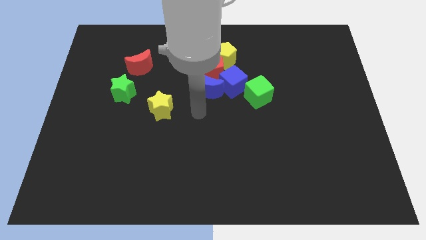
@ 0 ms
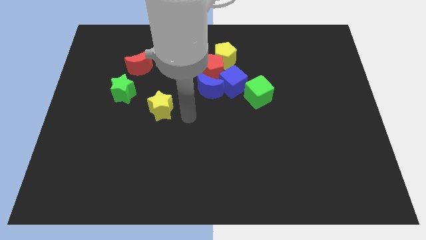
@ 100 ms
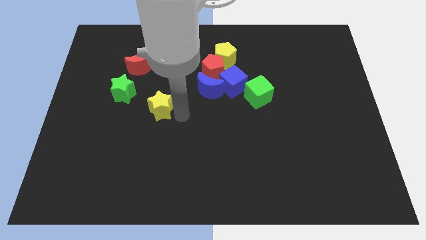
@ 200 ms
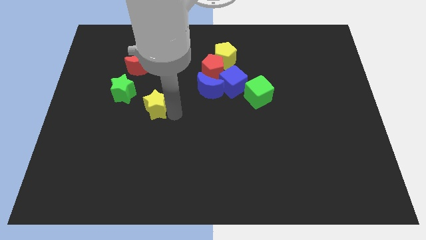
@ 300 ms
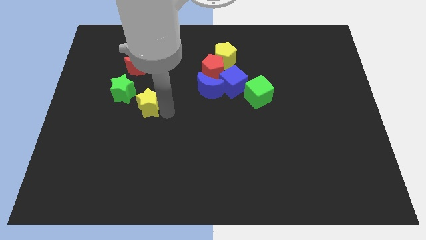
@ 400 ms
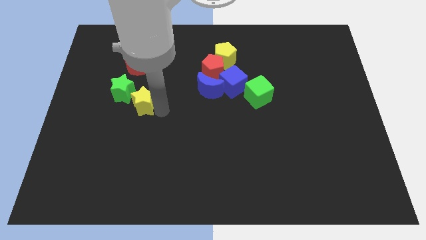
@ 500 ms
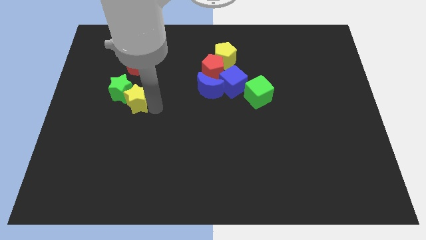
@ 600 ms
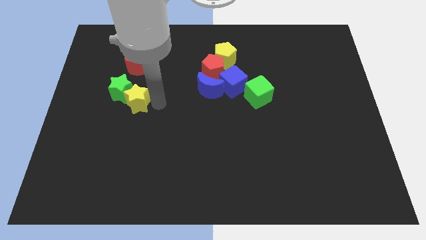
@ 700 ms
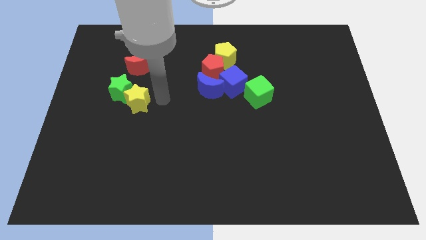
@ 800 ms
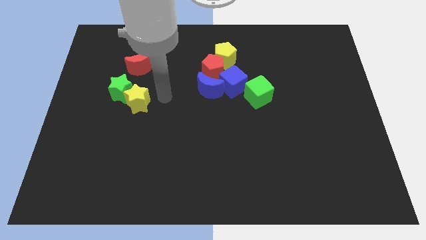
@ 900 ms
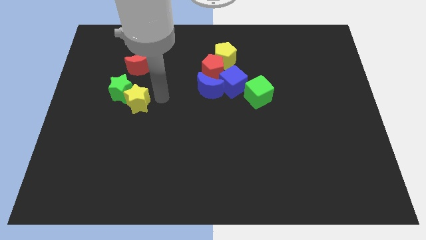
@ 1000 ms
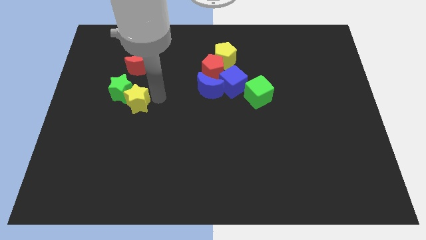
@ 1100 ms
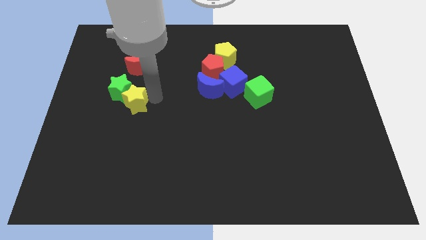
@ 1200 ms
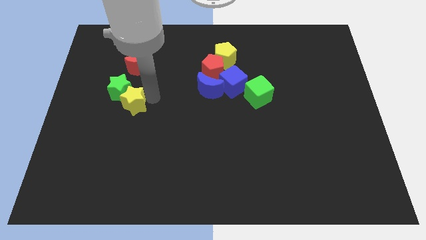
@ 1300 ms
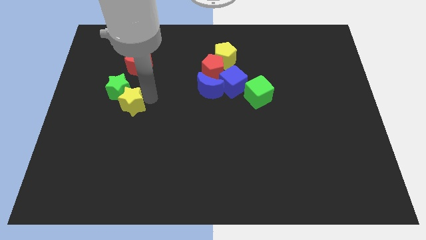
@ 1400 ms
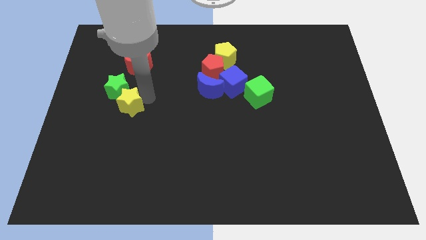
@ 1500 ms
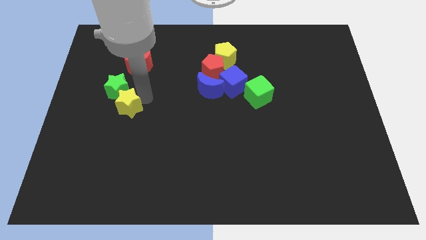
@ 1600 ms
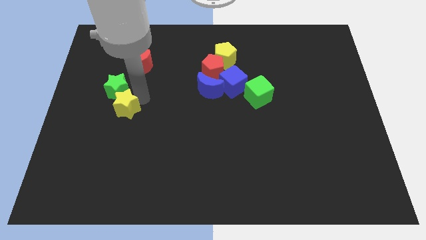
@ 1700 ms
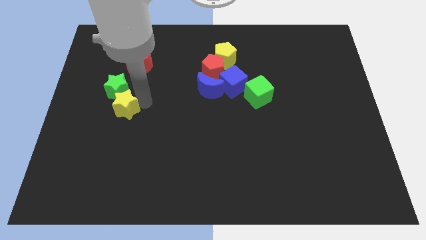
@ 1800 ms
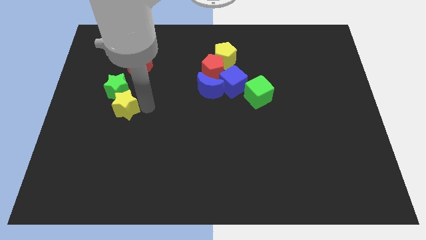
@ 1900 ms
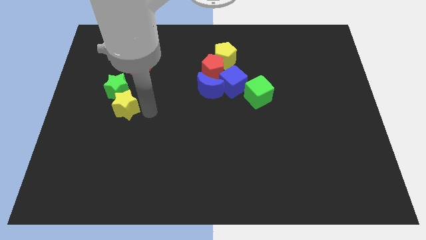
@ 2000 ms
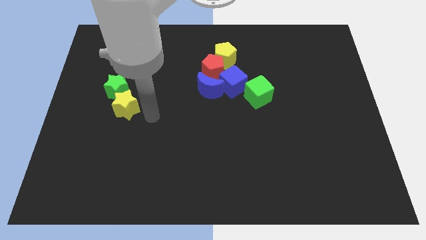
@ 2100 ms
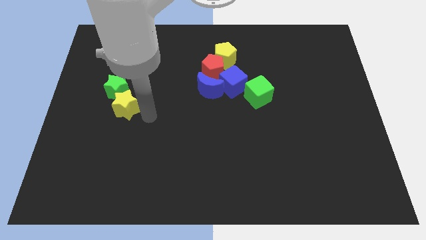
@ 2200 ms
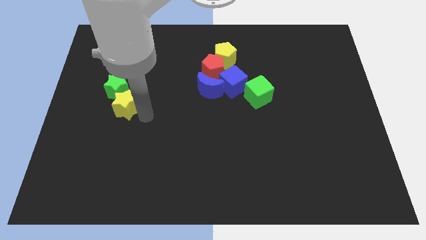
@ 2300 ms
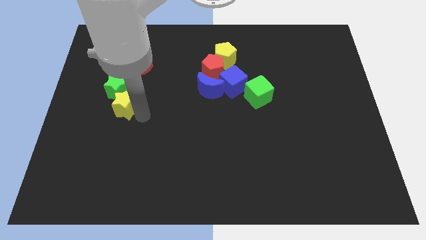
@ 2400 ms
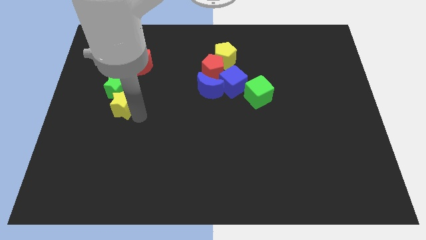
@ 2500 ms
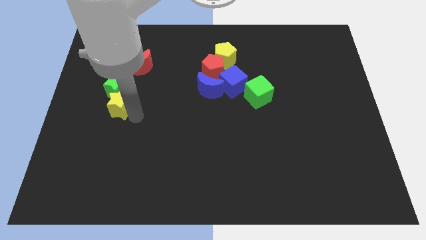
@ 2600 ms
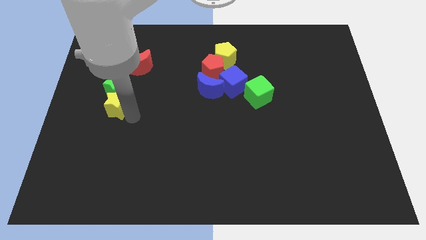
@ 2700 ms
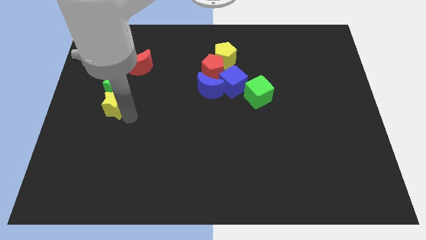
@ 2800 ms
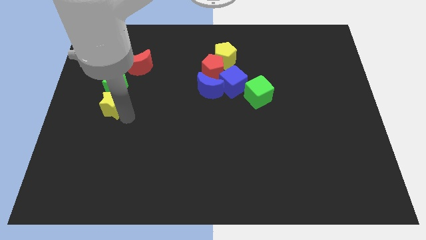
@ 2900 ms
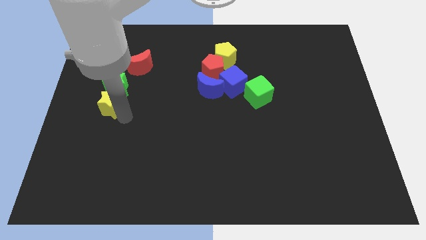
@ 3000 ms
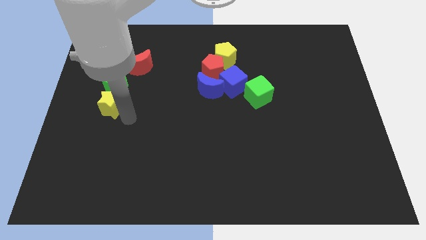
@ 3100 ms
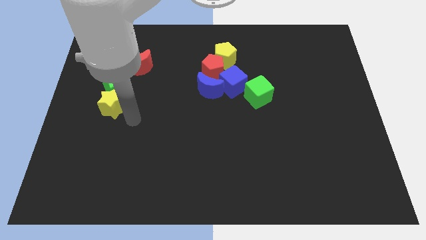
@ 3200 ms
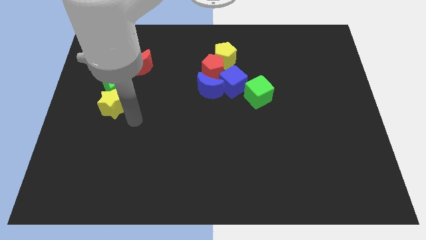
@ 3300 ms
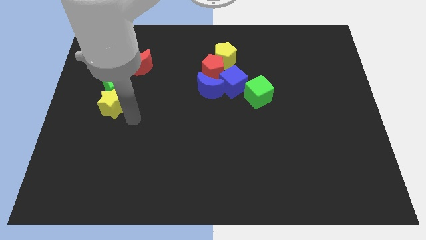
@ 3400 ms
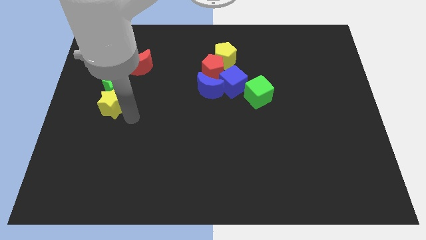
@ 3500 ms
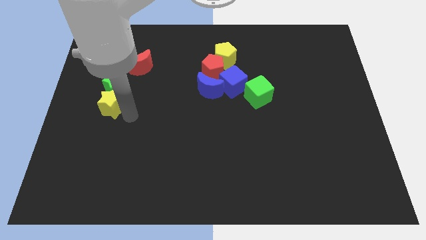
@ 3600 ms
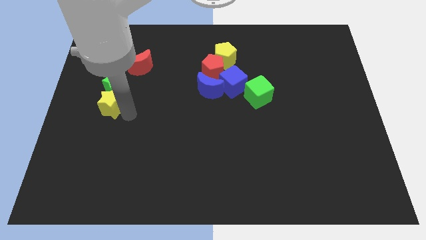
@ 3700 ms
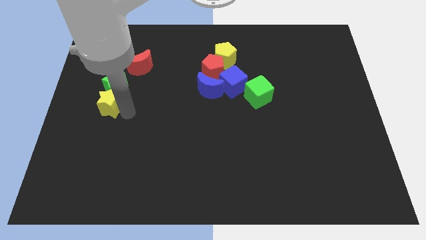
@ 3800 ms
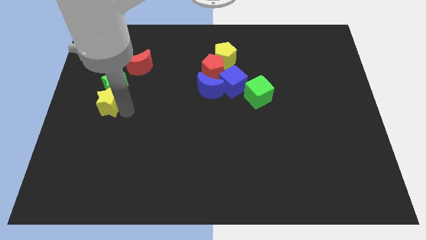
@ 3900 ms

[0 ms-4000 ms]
move the yellow star slightly upwards and then to the left

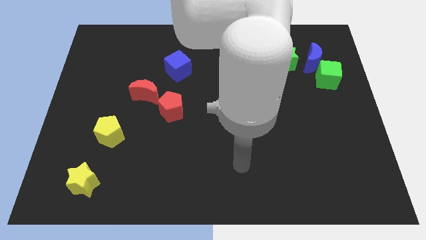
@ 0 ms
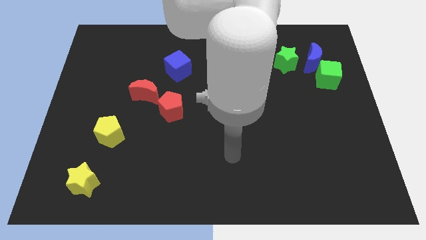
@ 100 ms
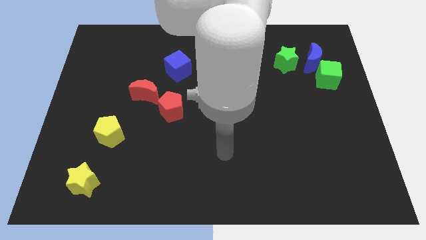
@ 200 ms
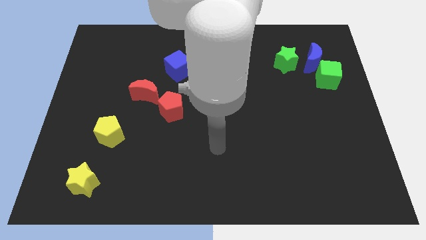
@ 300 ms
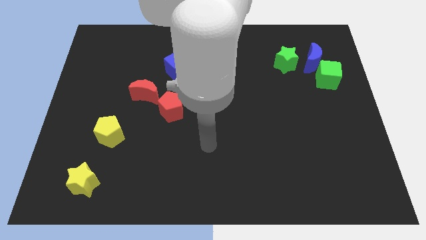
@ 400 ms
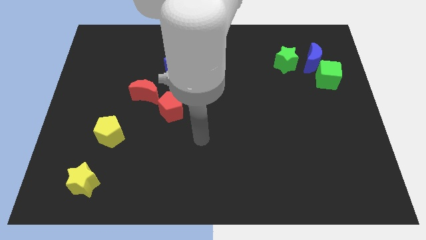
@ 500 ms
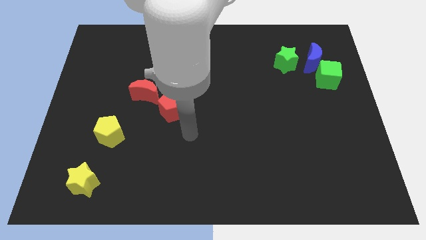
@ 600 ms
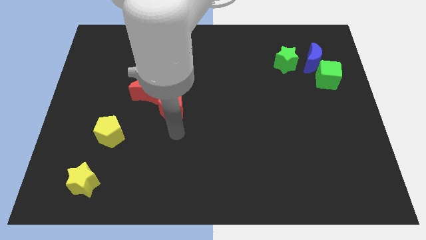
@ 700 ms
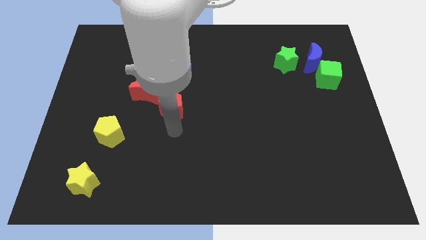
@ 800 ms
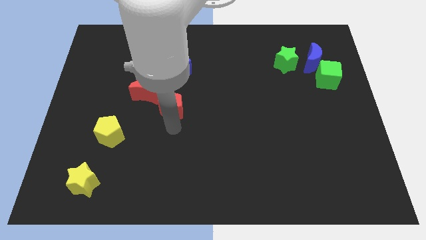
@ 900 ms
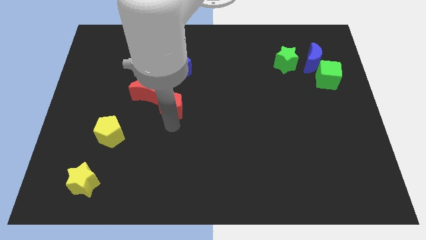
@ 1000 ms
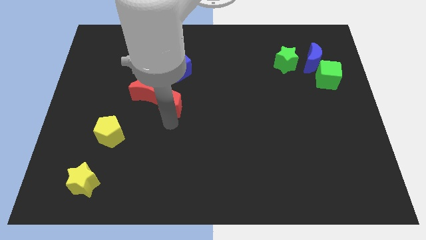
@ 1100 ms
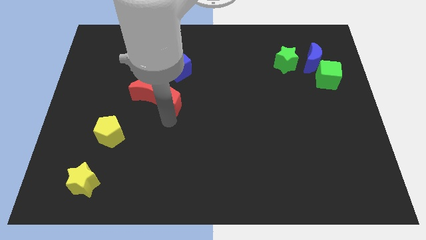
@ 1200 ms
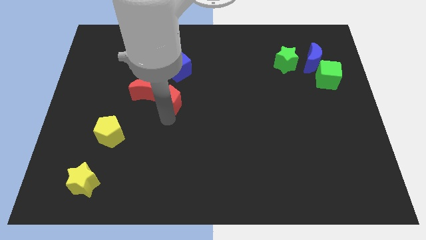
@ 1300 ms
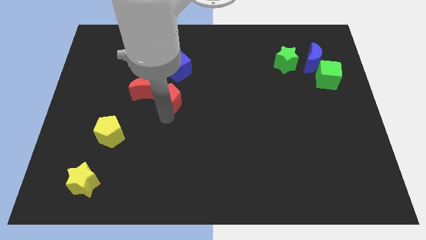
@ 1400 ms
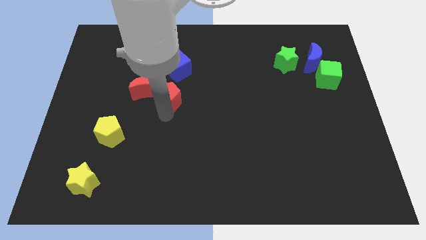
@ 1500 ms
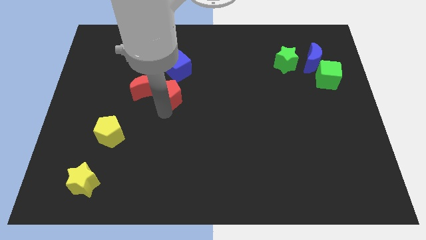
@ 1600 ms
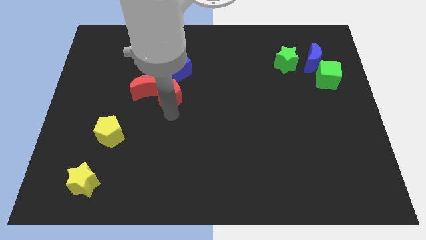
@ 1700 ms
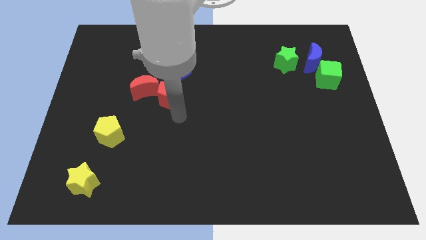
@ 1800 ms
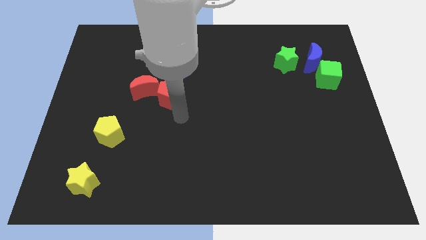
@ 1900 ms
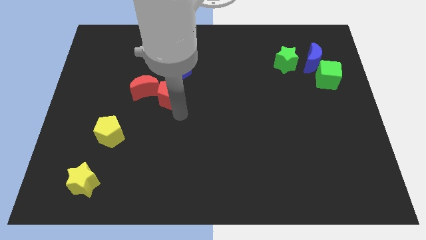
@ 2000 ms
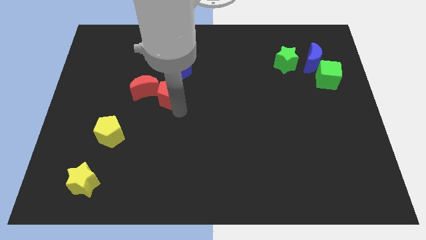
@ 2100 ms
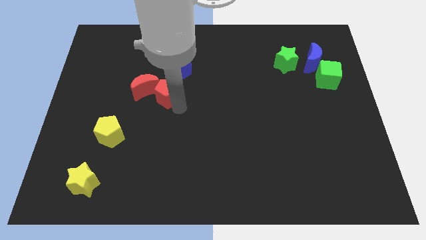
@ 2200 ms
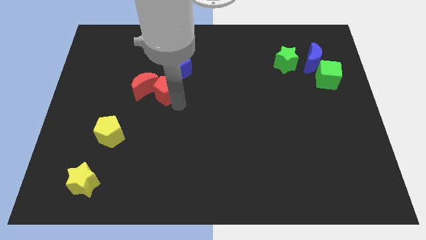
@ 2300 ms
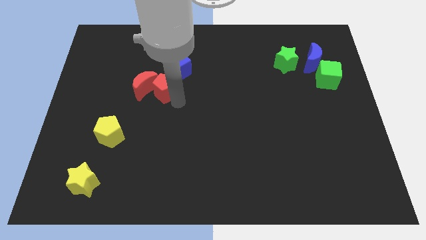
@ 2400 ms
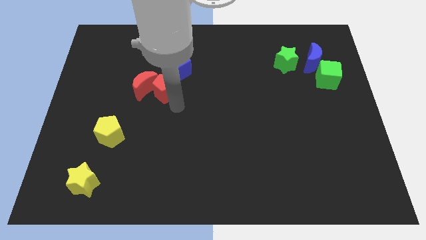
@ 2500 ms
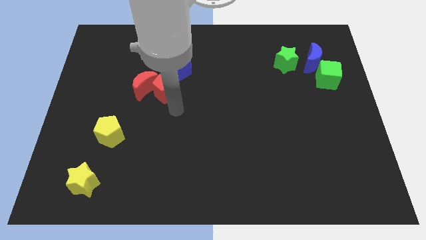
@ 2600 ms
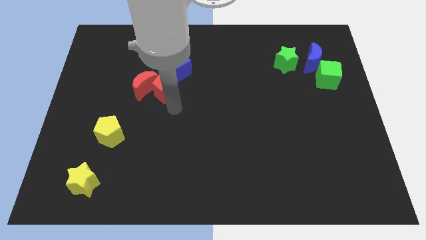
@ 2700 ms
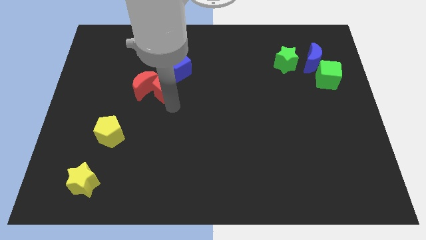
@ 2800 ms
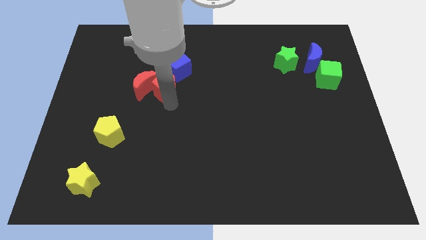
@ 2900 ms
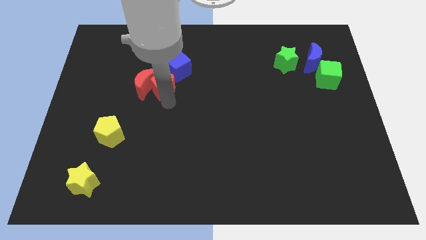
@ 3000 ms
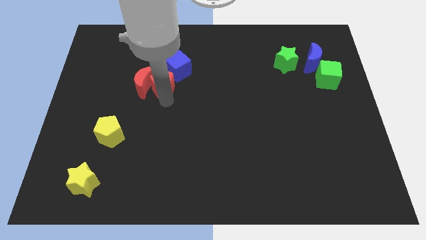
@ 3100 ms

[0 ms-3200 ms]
slide the red pentagon diagonally up and to the left a bit

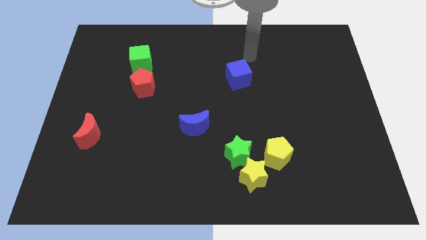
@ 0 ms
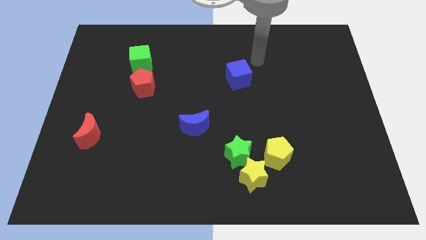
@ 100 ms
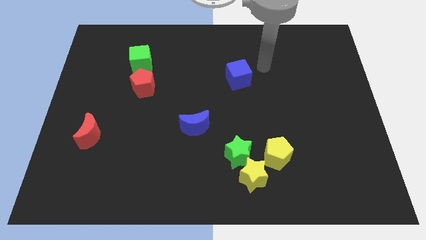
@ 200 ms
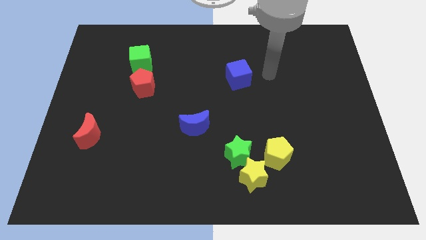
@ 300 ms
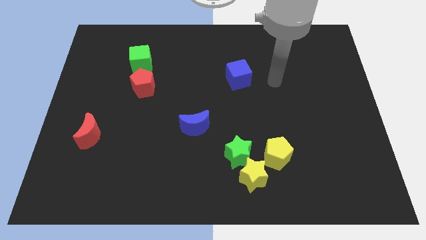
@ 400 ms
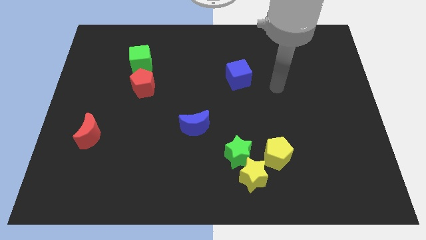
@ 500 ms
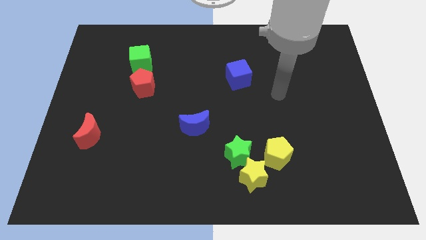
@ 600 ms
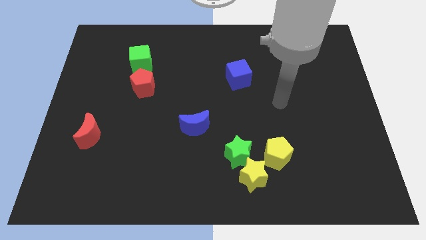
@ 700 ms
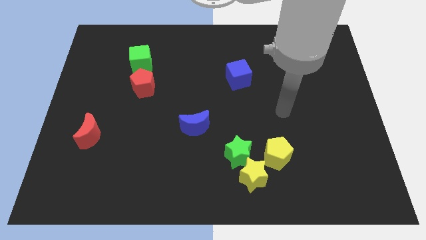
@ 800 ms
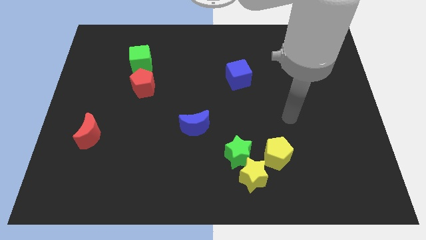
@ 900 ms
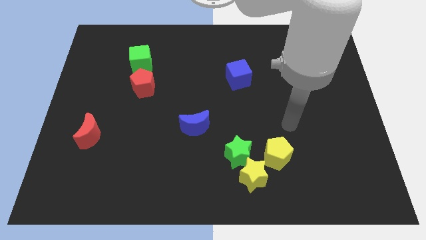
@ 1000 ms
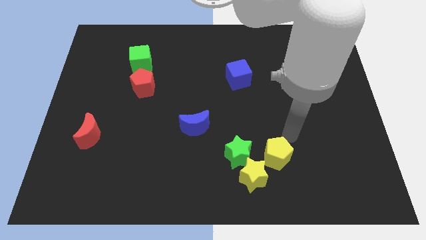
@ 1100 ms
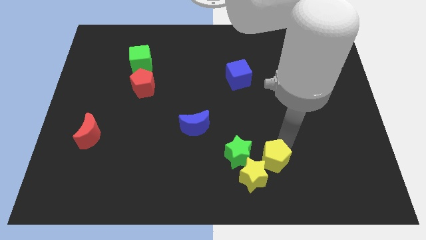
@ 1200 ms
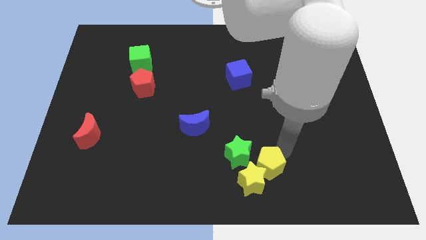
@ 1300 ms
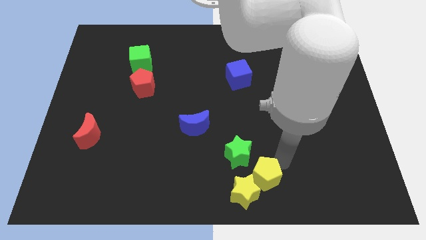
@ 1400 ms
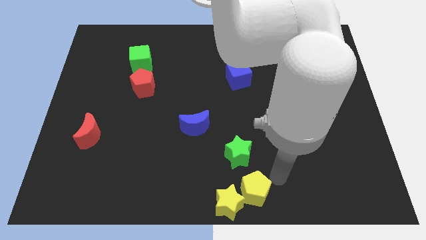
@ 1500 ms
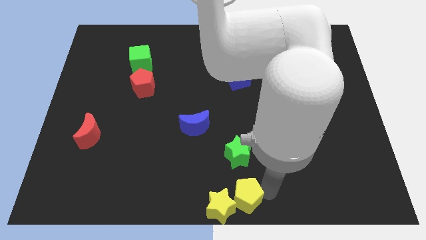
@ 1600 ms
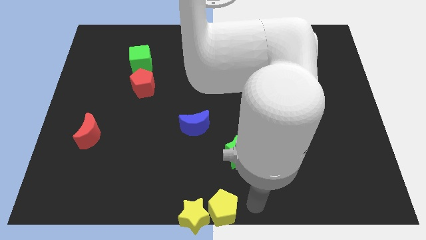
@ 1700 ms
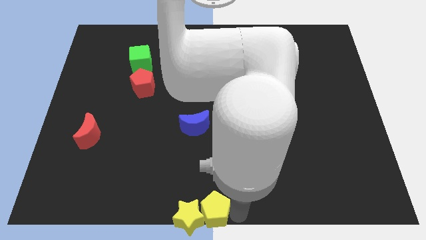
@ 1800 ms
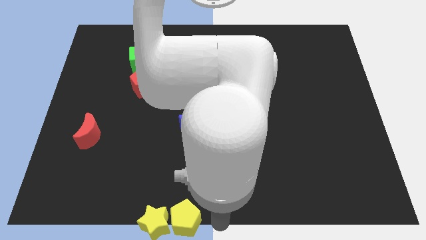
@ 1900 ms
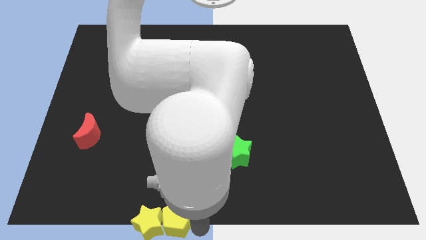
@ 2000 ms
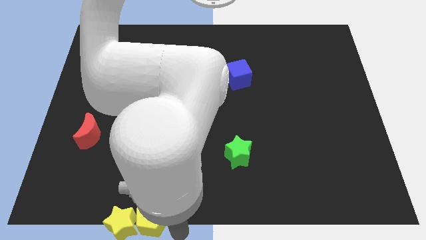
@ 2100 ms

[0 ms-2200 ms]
slide the yellow star to the left
